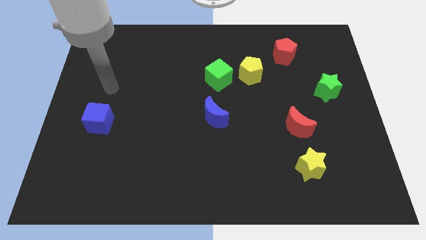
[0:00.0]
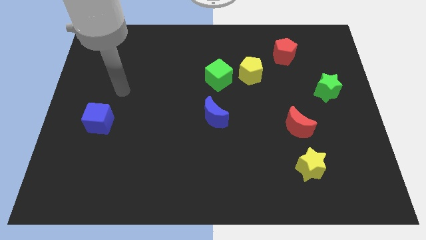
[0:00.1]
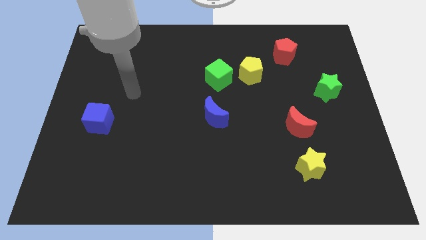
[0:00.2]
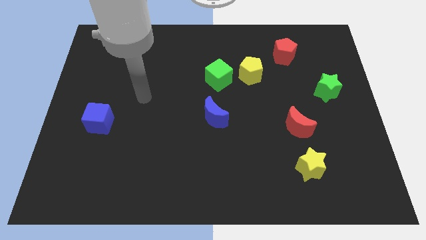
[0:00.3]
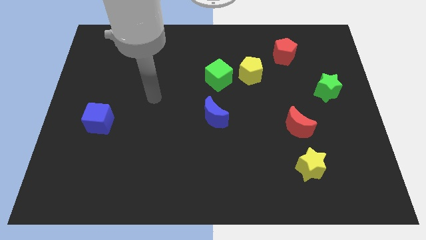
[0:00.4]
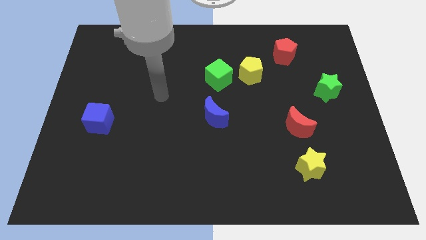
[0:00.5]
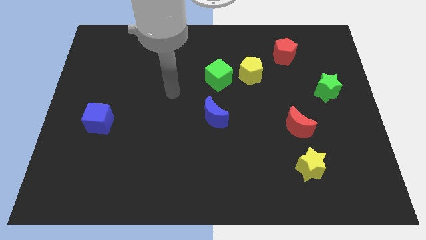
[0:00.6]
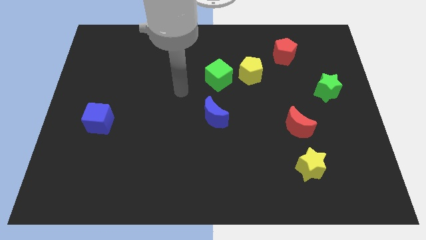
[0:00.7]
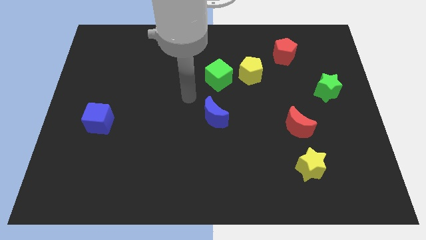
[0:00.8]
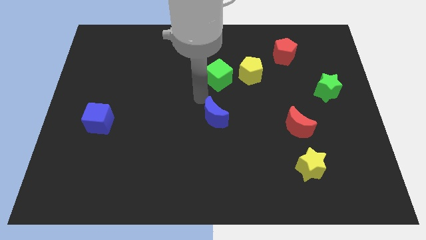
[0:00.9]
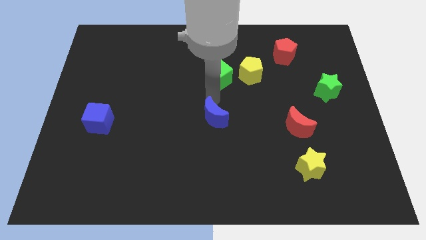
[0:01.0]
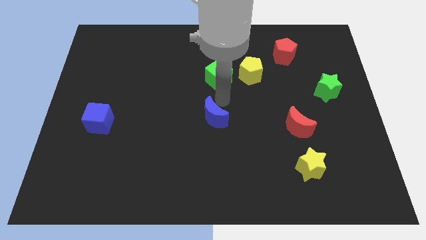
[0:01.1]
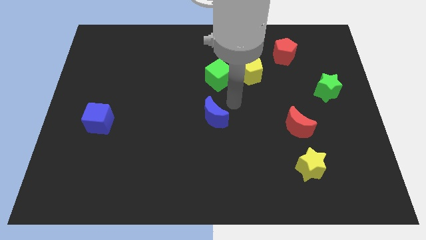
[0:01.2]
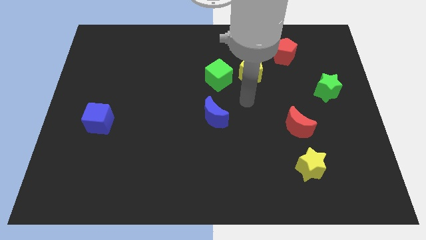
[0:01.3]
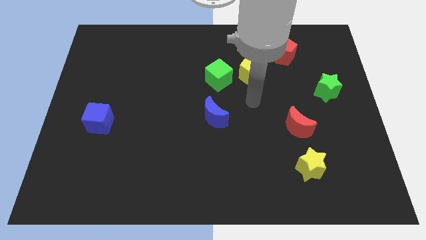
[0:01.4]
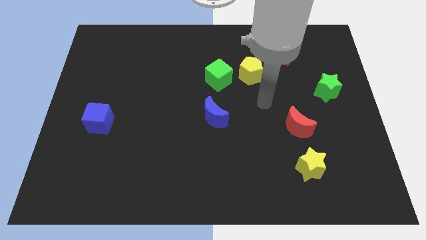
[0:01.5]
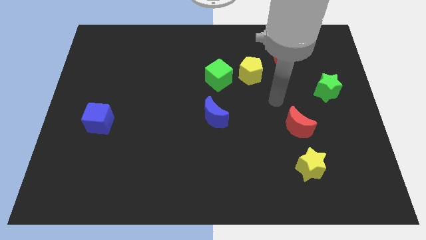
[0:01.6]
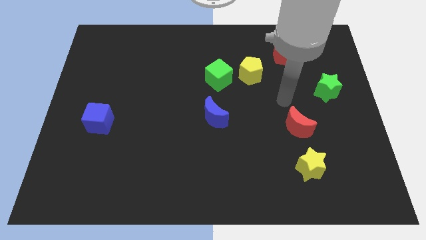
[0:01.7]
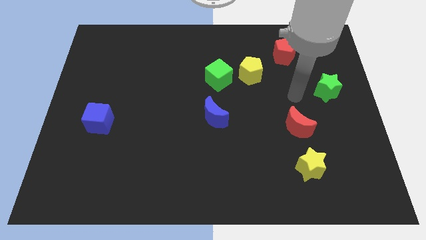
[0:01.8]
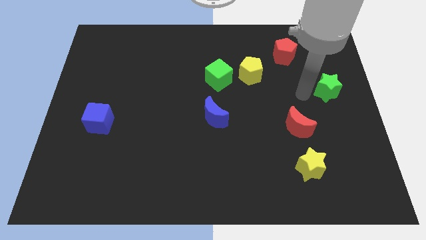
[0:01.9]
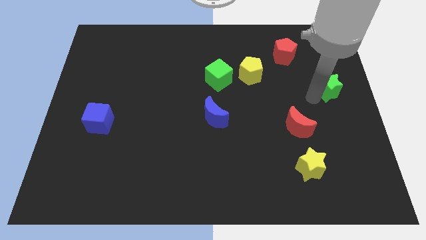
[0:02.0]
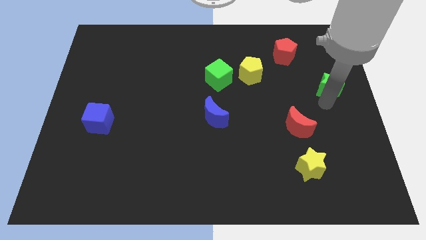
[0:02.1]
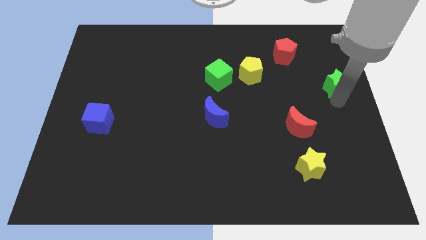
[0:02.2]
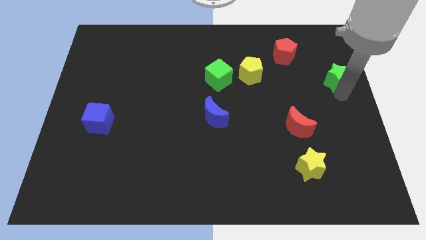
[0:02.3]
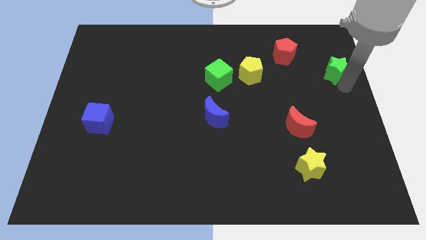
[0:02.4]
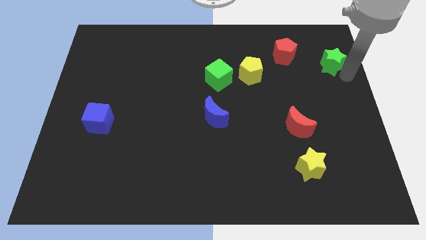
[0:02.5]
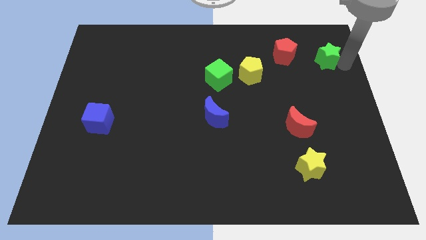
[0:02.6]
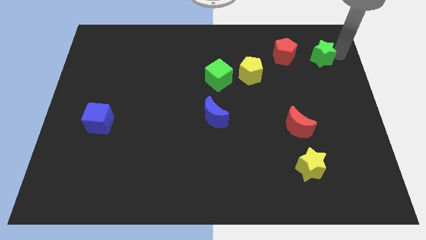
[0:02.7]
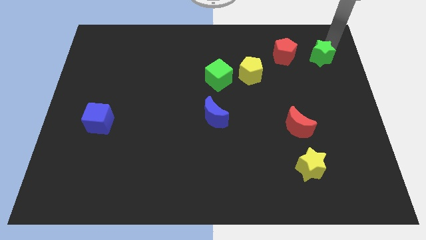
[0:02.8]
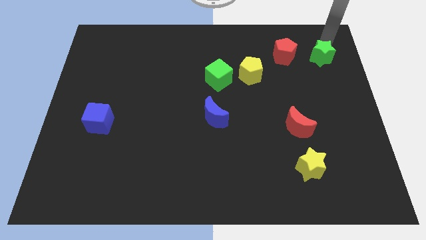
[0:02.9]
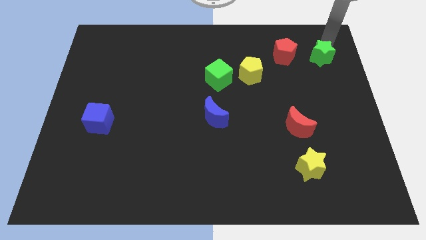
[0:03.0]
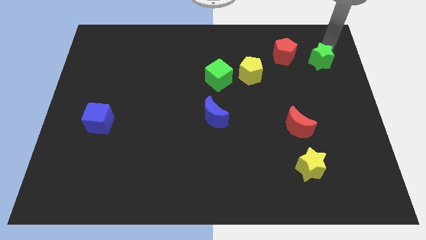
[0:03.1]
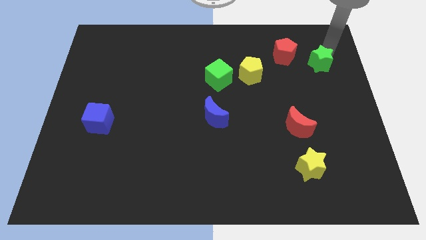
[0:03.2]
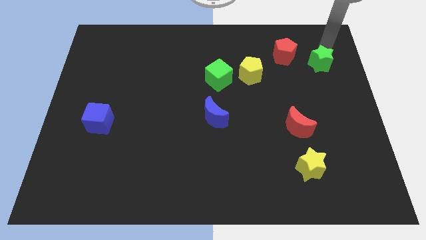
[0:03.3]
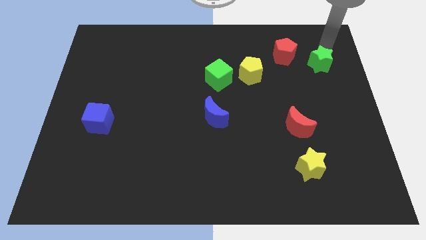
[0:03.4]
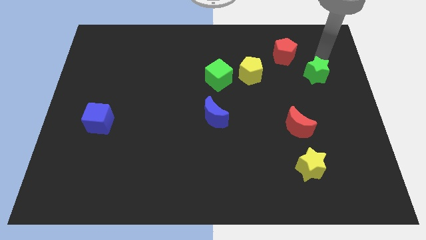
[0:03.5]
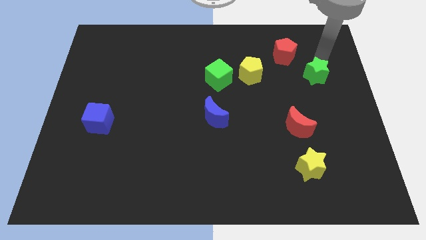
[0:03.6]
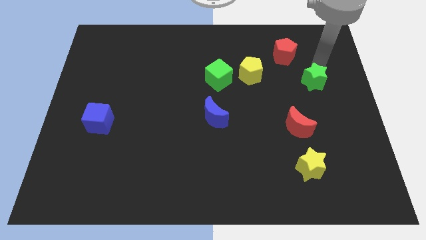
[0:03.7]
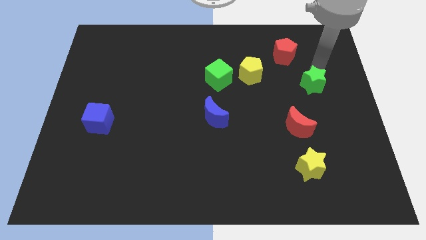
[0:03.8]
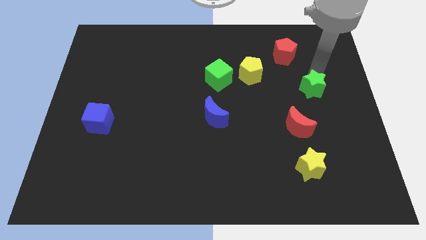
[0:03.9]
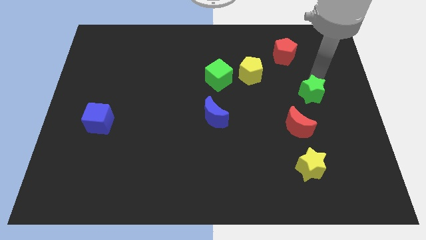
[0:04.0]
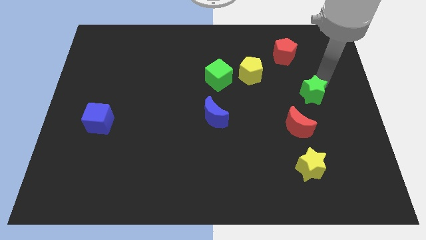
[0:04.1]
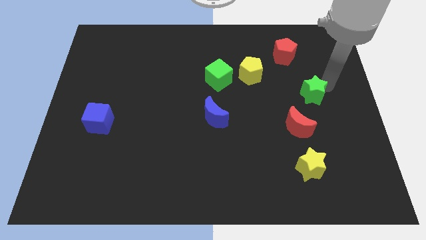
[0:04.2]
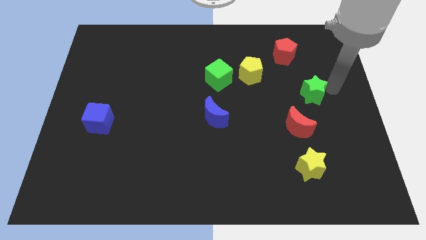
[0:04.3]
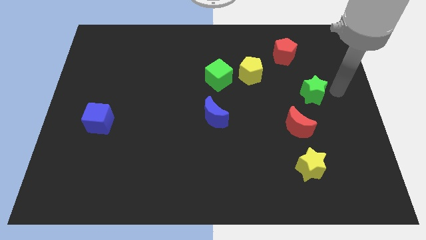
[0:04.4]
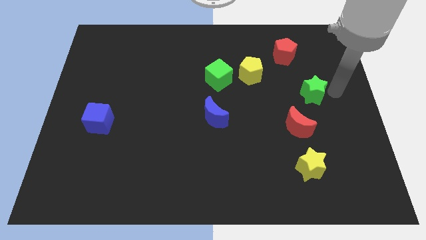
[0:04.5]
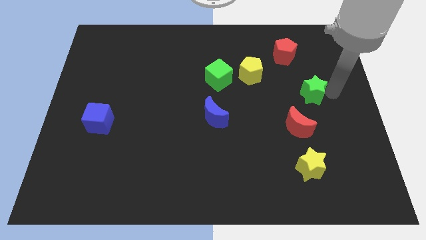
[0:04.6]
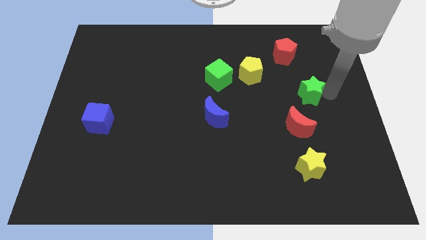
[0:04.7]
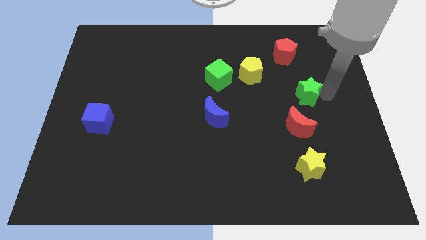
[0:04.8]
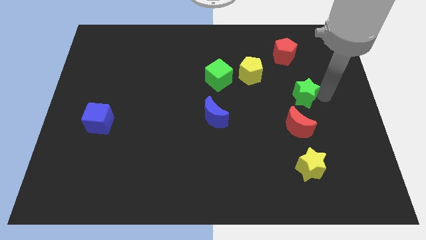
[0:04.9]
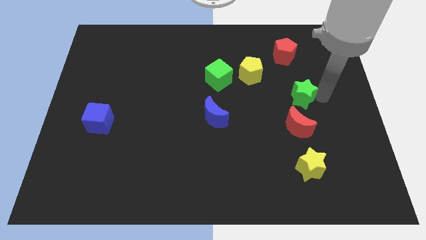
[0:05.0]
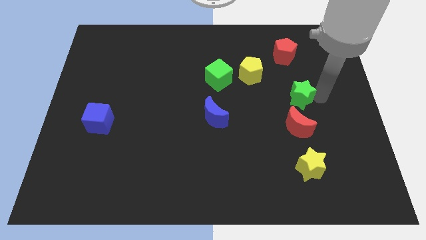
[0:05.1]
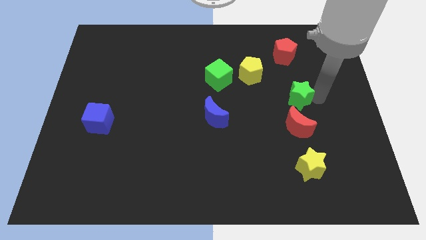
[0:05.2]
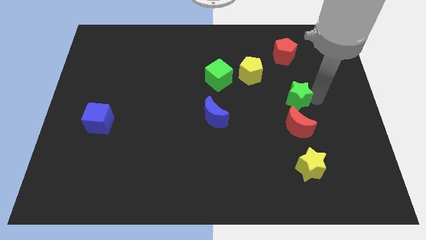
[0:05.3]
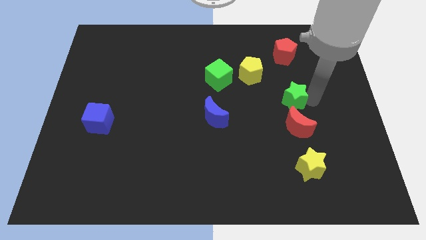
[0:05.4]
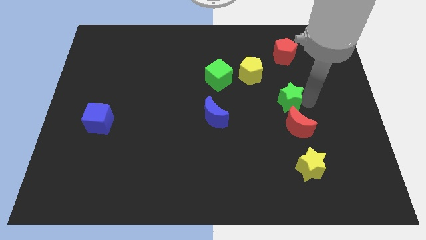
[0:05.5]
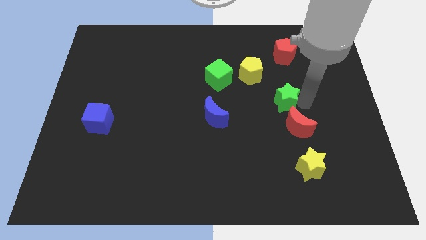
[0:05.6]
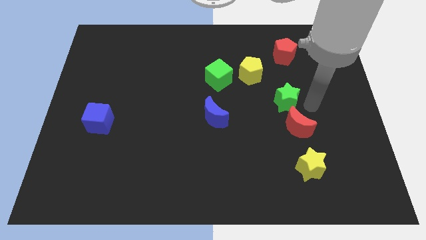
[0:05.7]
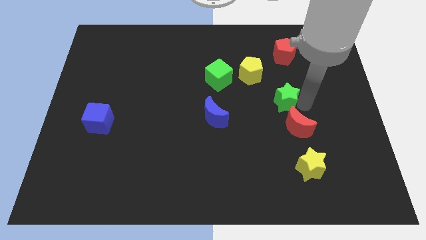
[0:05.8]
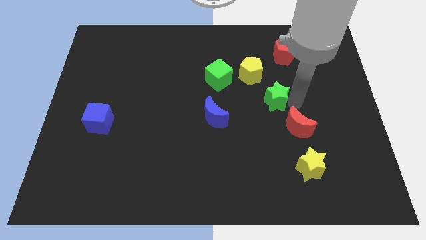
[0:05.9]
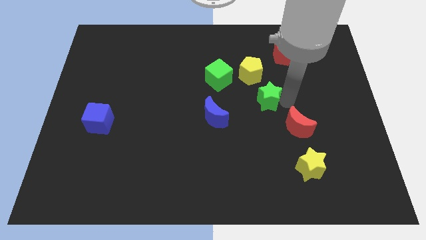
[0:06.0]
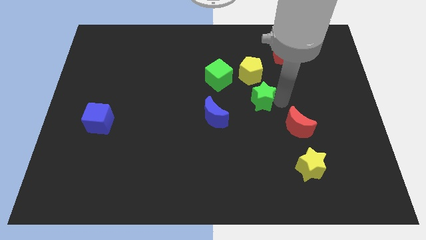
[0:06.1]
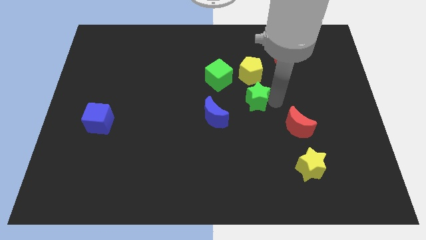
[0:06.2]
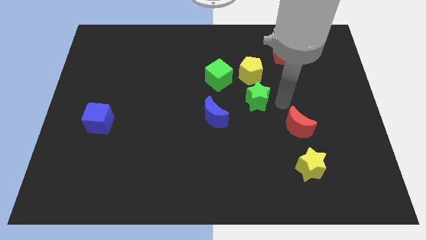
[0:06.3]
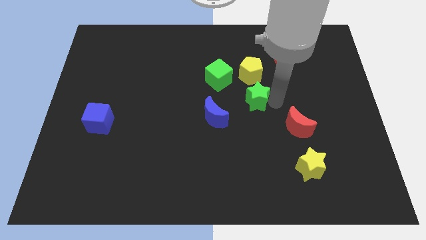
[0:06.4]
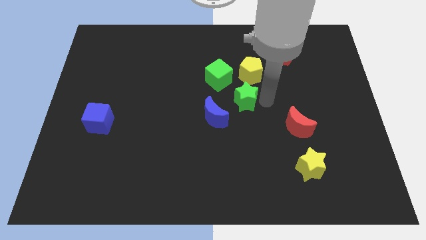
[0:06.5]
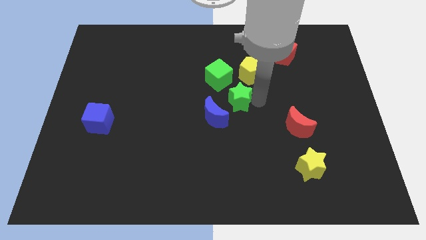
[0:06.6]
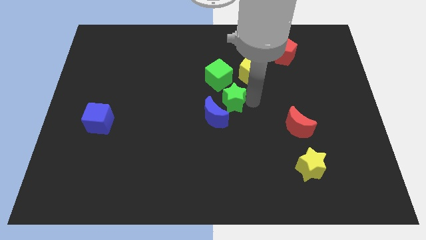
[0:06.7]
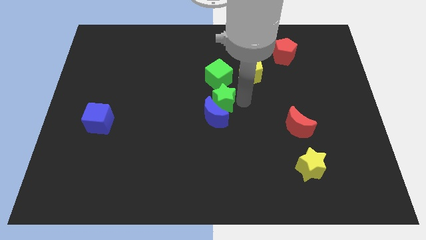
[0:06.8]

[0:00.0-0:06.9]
push the green star to the top left of the blue moon

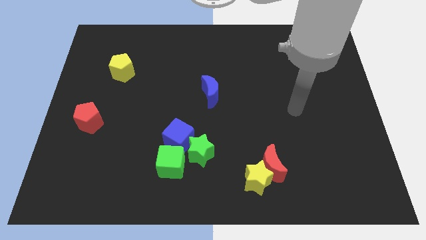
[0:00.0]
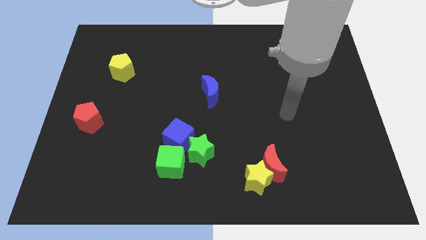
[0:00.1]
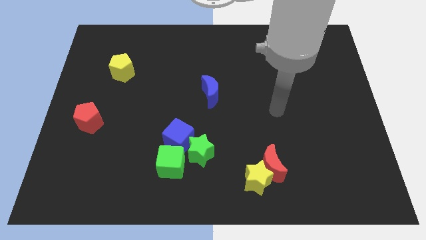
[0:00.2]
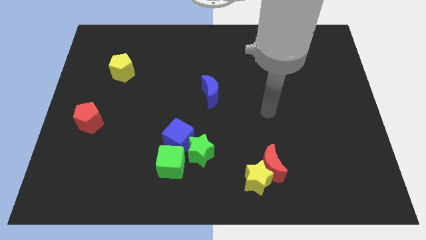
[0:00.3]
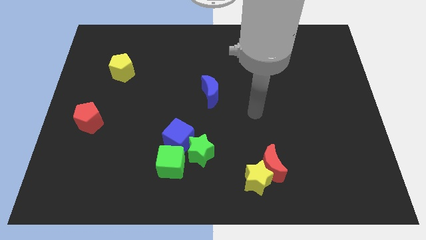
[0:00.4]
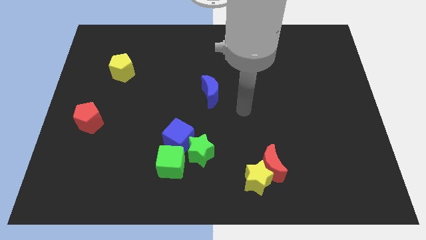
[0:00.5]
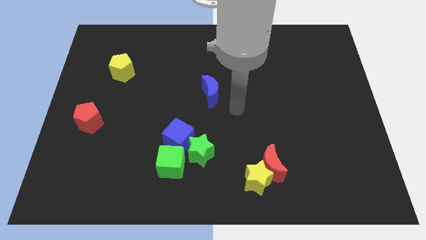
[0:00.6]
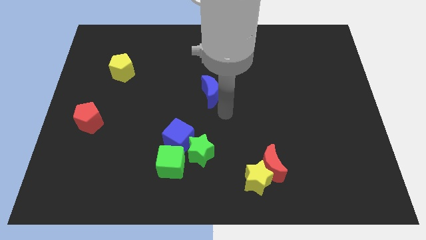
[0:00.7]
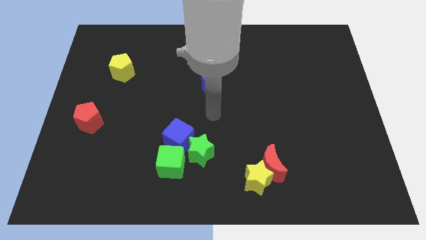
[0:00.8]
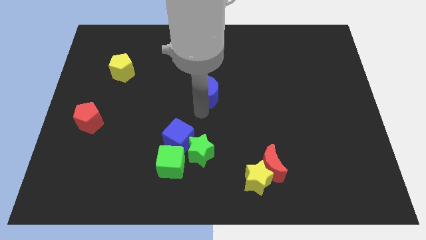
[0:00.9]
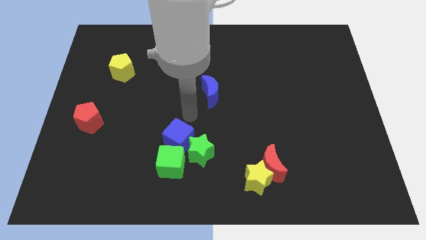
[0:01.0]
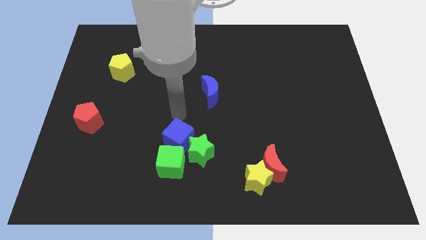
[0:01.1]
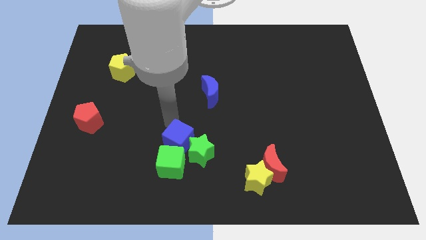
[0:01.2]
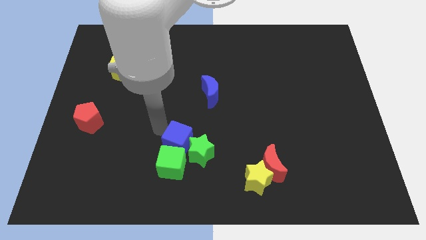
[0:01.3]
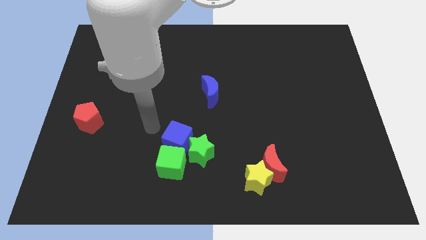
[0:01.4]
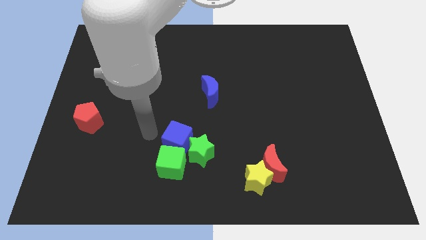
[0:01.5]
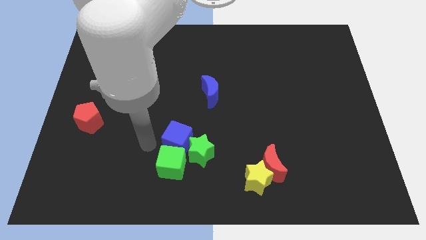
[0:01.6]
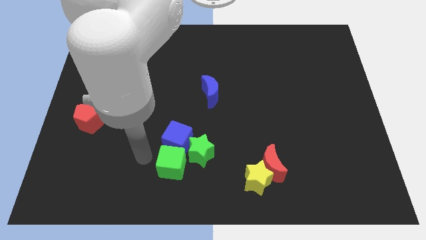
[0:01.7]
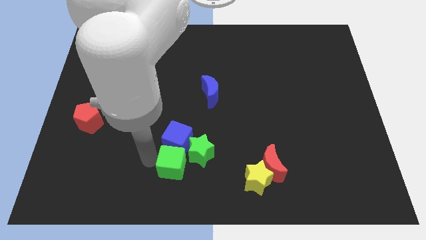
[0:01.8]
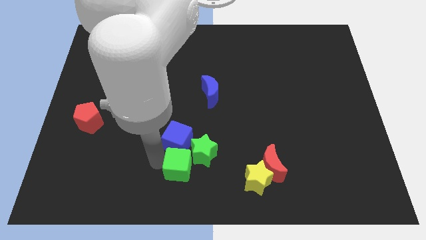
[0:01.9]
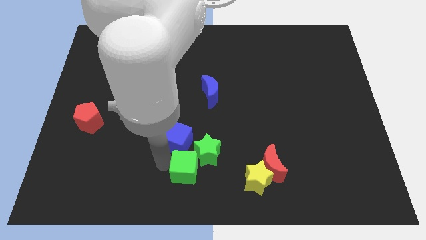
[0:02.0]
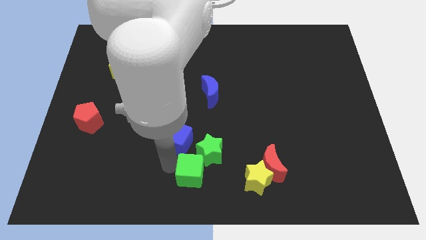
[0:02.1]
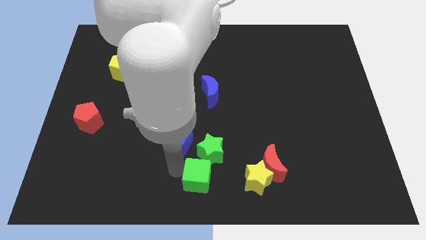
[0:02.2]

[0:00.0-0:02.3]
move the green cube left of the red moon
